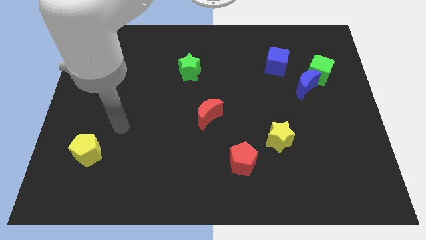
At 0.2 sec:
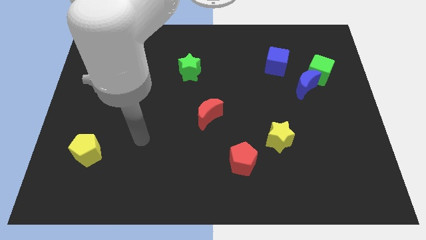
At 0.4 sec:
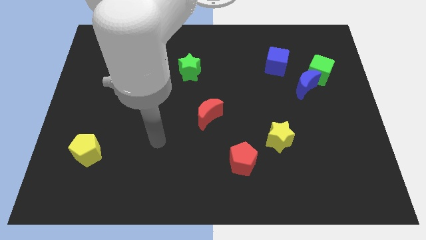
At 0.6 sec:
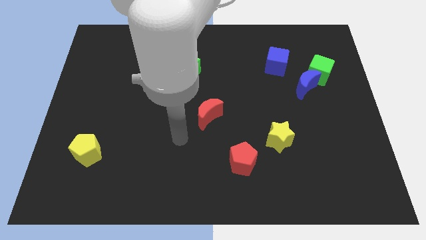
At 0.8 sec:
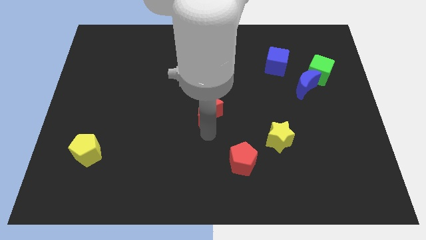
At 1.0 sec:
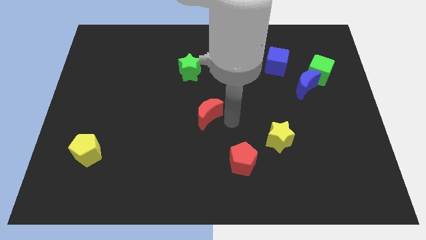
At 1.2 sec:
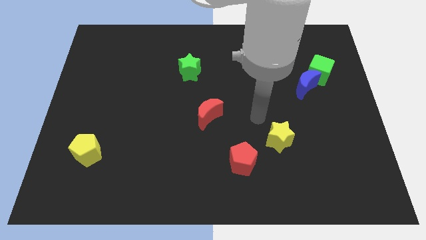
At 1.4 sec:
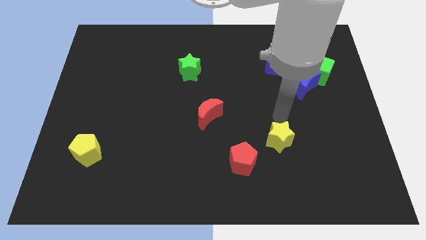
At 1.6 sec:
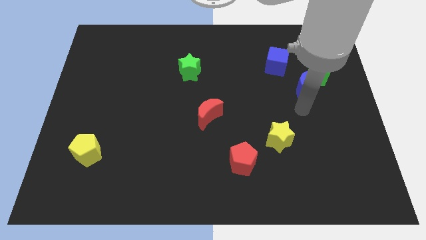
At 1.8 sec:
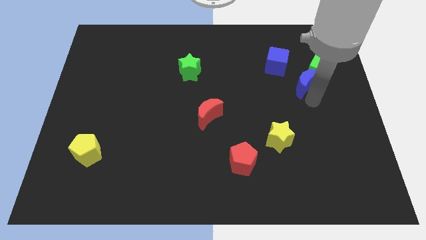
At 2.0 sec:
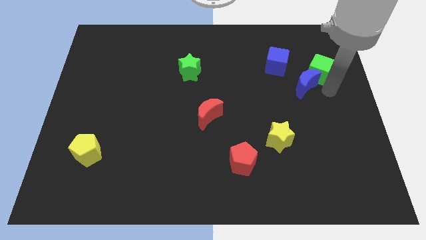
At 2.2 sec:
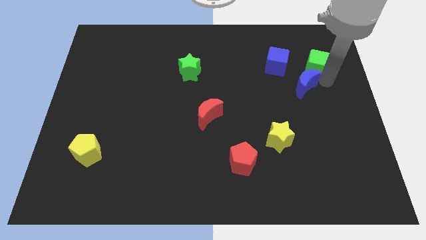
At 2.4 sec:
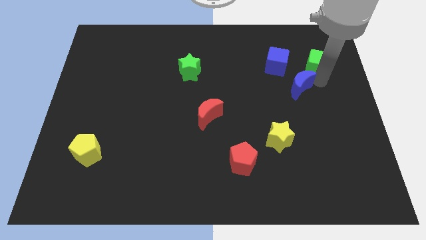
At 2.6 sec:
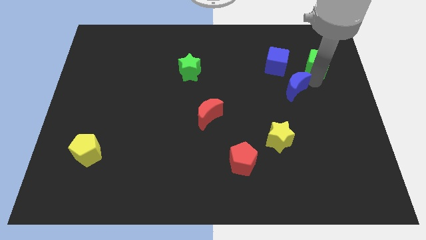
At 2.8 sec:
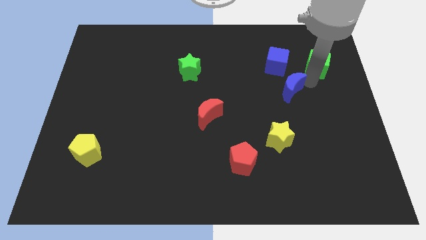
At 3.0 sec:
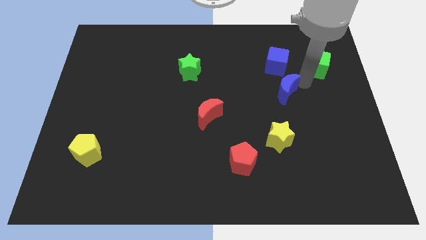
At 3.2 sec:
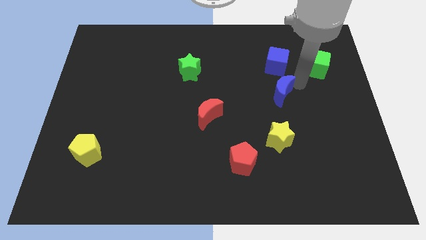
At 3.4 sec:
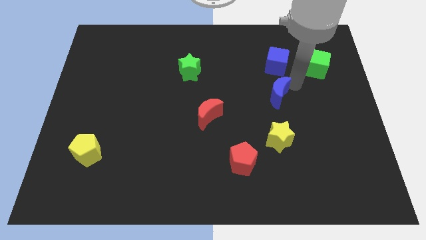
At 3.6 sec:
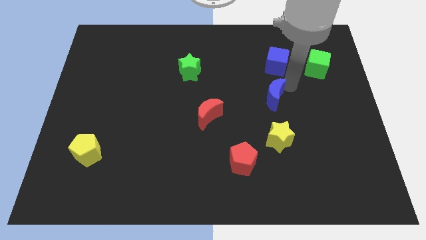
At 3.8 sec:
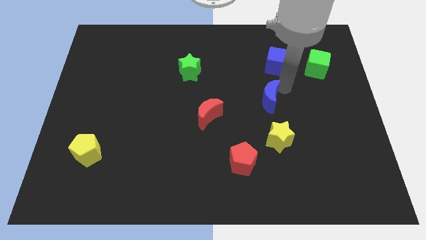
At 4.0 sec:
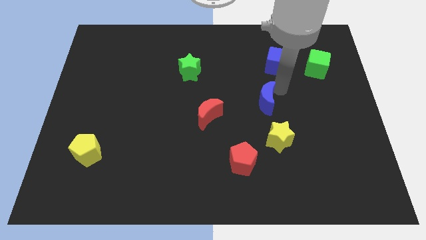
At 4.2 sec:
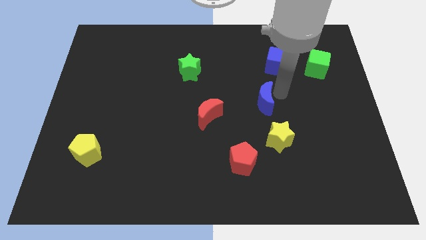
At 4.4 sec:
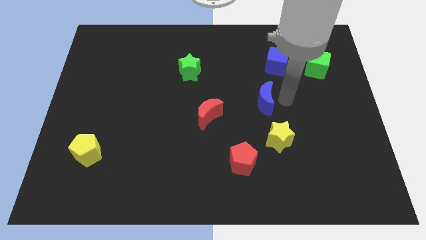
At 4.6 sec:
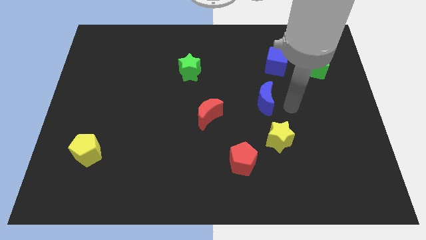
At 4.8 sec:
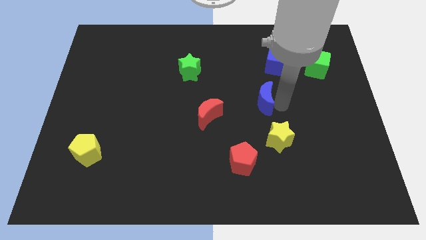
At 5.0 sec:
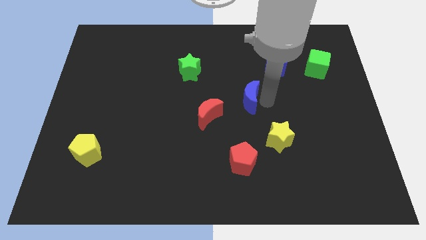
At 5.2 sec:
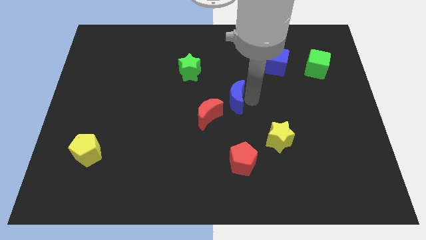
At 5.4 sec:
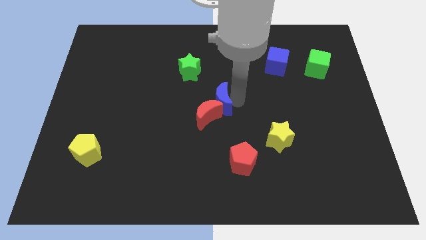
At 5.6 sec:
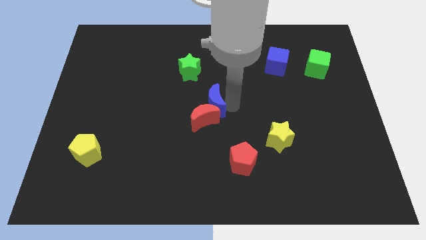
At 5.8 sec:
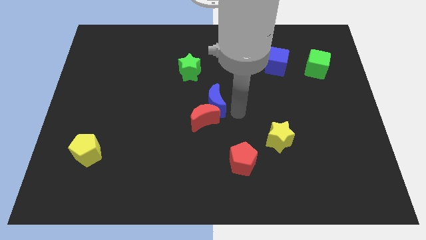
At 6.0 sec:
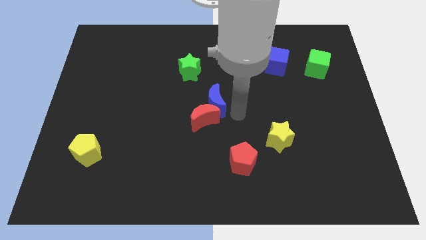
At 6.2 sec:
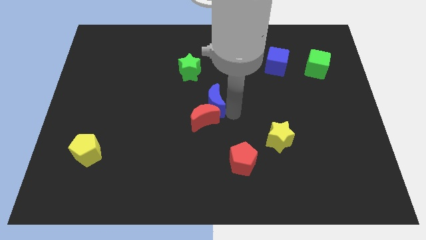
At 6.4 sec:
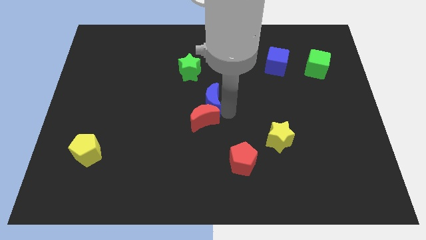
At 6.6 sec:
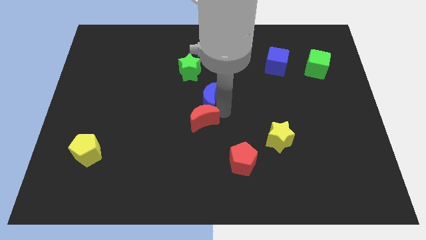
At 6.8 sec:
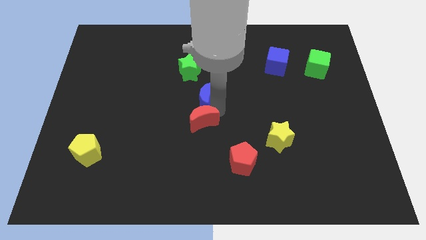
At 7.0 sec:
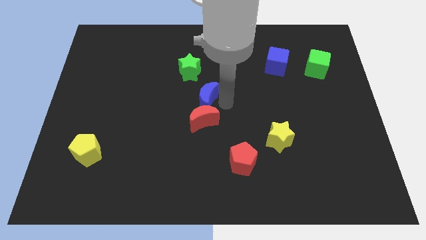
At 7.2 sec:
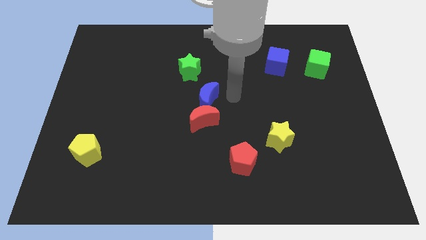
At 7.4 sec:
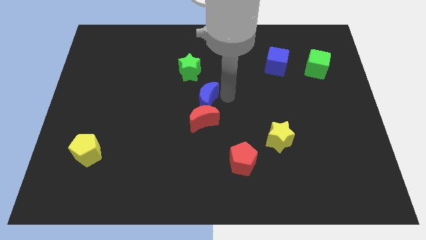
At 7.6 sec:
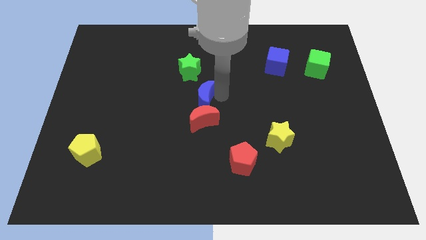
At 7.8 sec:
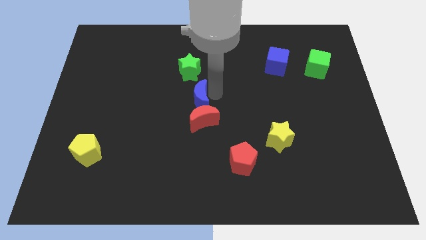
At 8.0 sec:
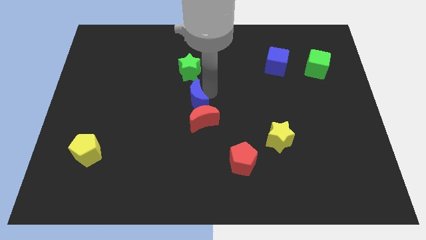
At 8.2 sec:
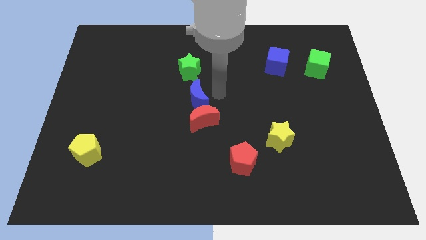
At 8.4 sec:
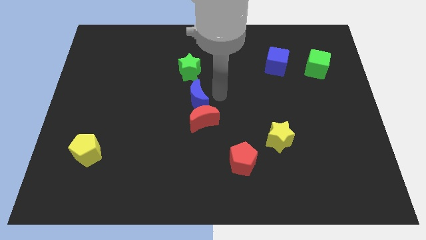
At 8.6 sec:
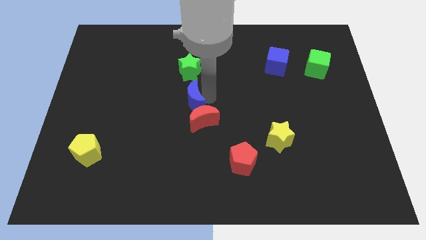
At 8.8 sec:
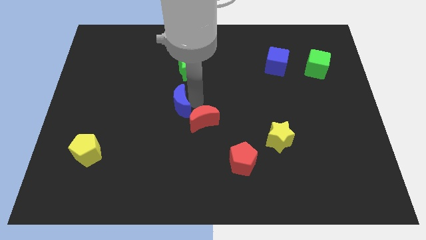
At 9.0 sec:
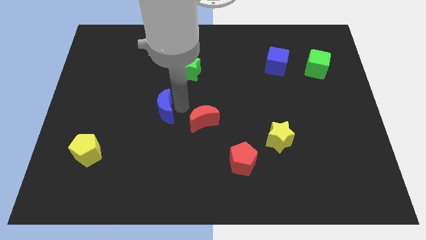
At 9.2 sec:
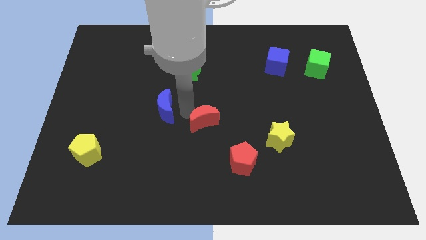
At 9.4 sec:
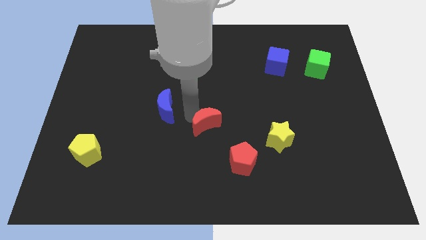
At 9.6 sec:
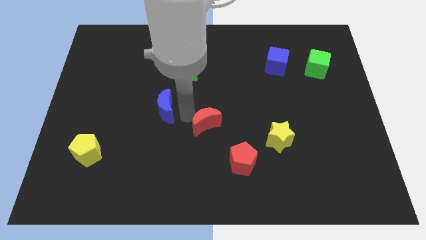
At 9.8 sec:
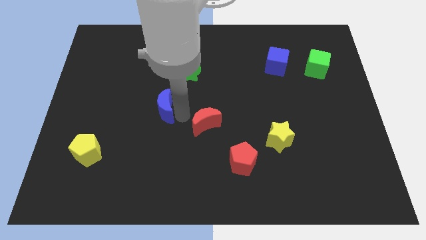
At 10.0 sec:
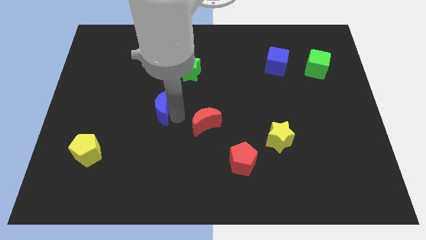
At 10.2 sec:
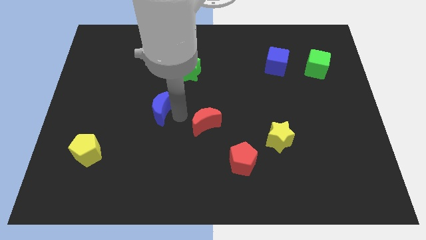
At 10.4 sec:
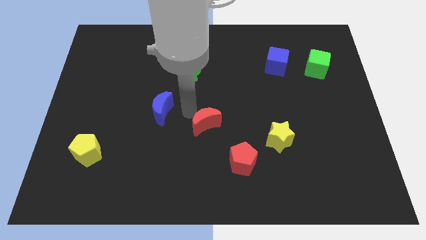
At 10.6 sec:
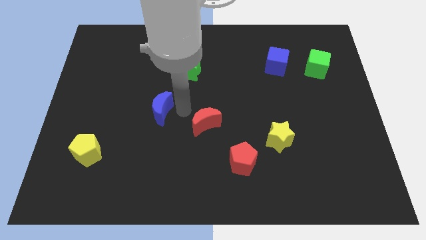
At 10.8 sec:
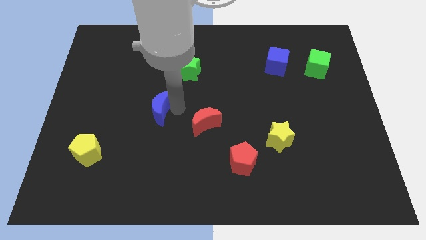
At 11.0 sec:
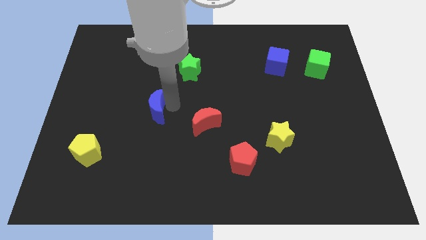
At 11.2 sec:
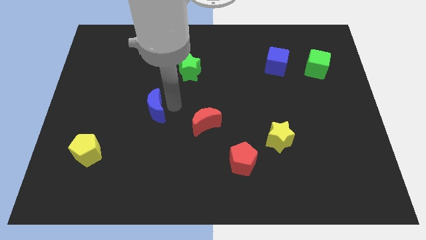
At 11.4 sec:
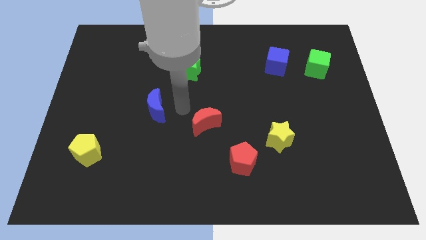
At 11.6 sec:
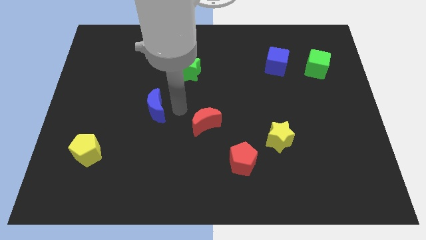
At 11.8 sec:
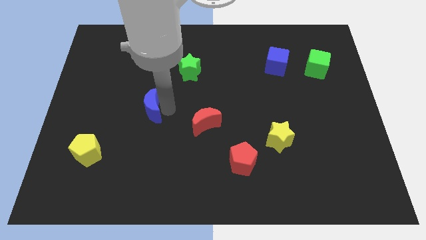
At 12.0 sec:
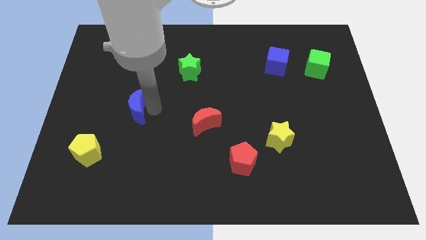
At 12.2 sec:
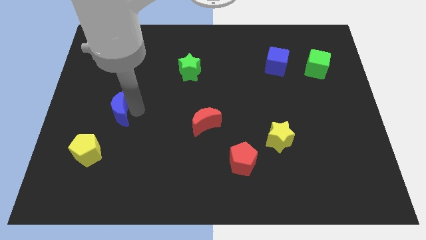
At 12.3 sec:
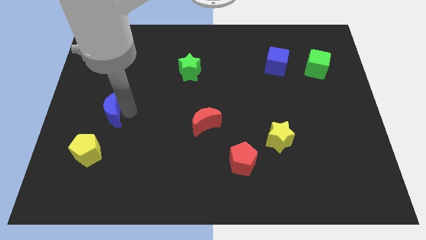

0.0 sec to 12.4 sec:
put the blue moon to the top side of the yellow pentagon

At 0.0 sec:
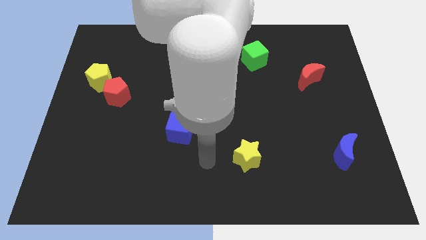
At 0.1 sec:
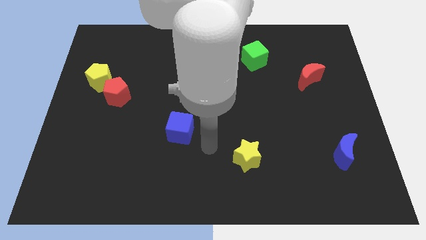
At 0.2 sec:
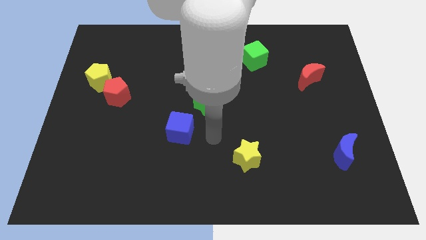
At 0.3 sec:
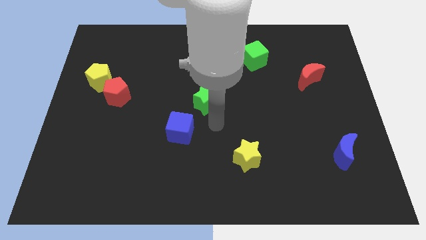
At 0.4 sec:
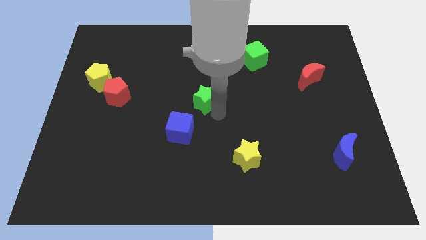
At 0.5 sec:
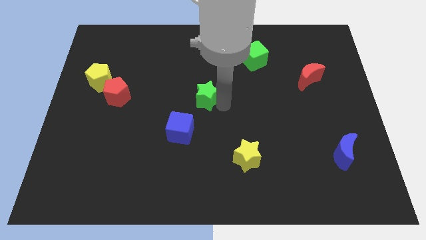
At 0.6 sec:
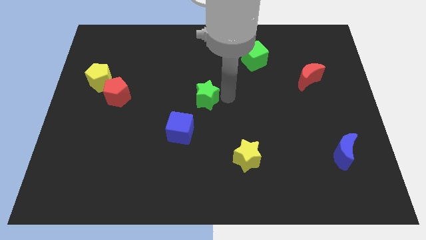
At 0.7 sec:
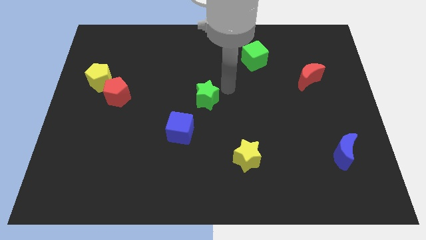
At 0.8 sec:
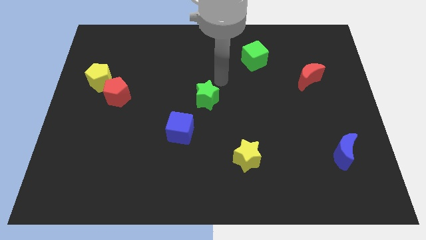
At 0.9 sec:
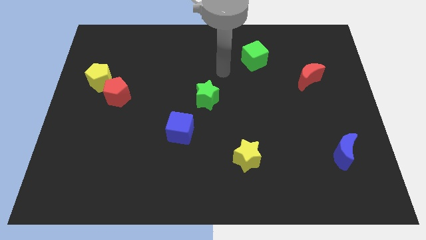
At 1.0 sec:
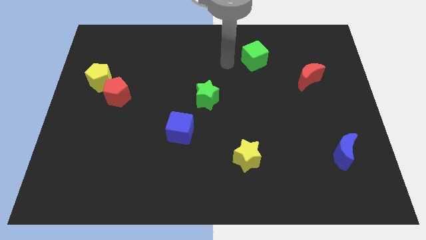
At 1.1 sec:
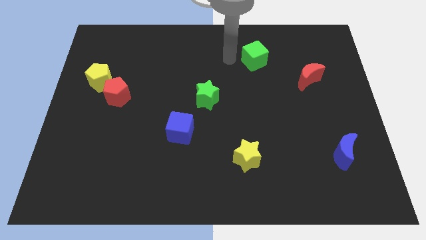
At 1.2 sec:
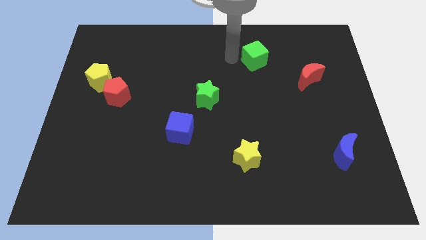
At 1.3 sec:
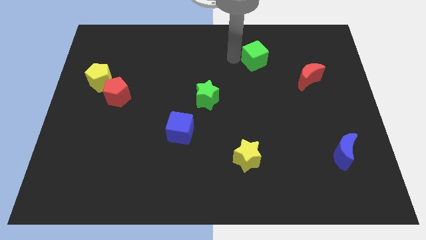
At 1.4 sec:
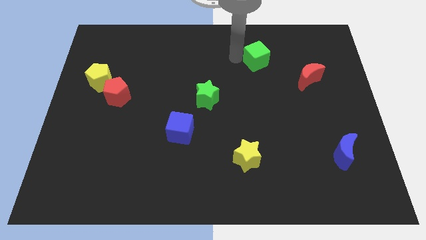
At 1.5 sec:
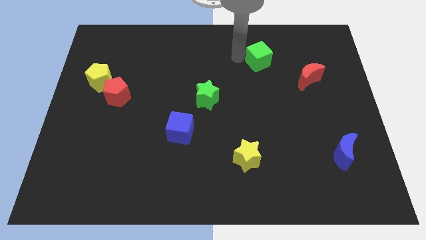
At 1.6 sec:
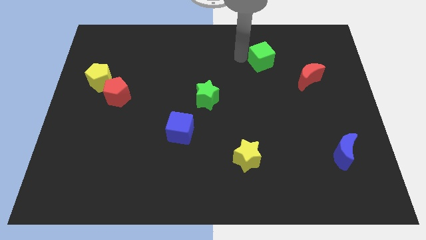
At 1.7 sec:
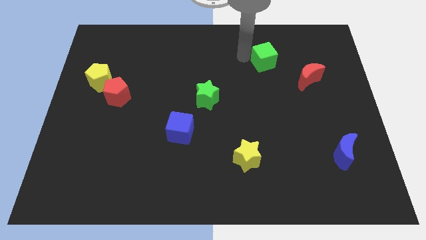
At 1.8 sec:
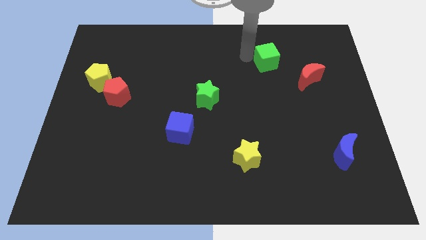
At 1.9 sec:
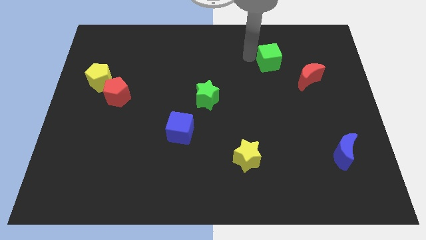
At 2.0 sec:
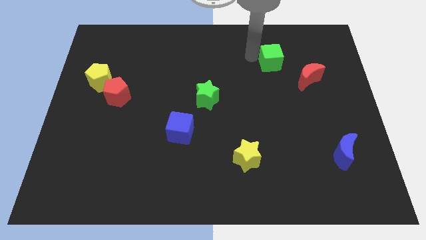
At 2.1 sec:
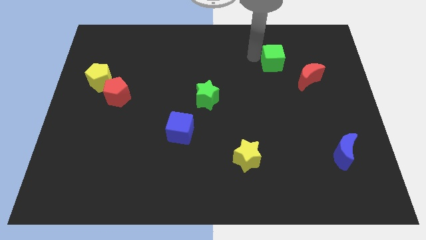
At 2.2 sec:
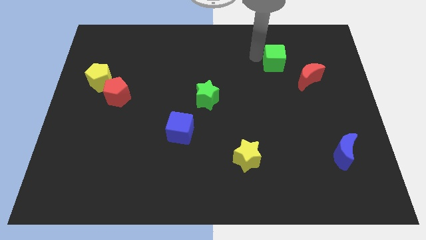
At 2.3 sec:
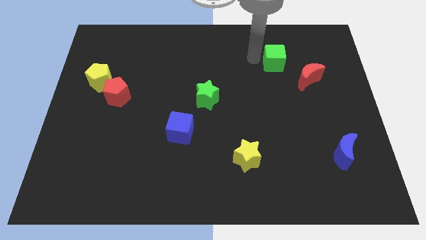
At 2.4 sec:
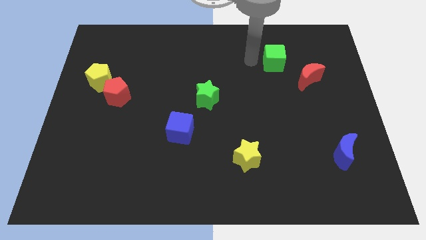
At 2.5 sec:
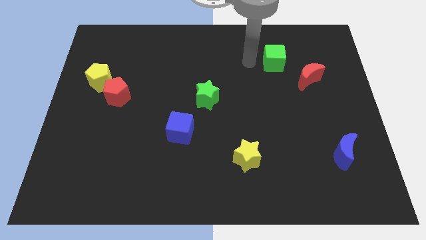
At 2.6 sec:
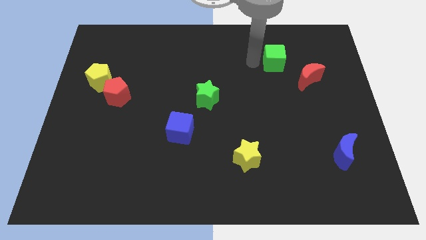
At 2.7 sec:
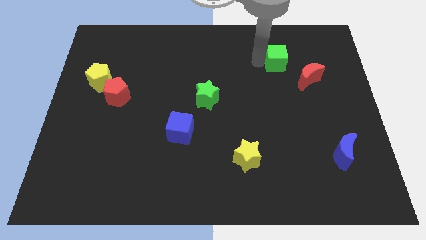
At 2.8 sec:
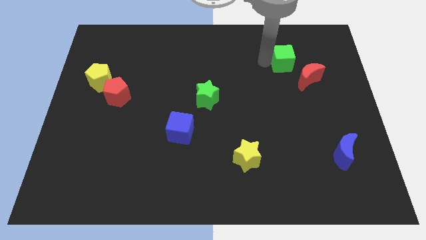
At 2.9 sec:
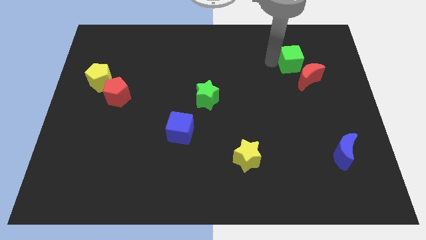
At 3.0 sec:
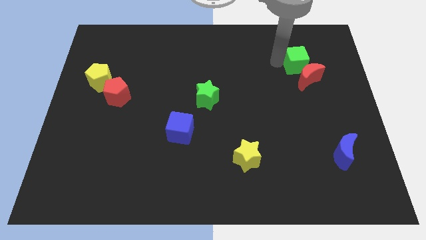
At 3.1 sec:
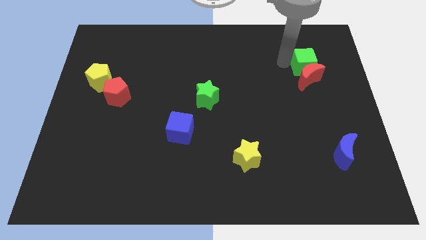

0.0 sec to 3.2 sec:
put the green cube diagonally up and to the right of the red moon
